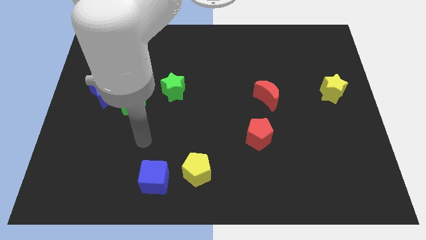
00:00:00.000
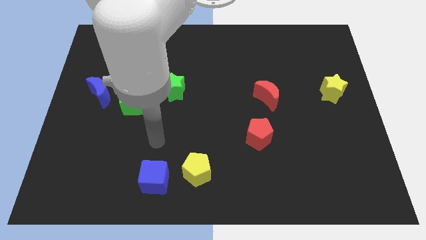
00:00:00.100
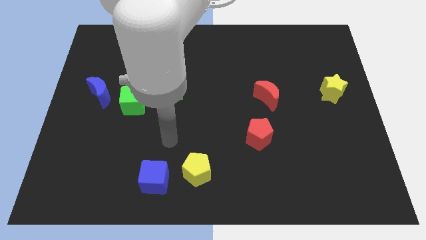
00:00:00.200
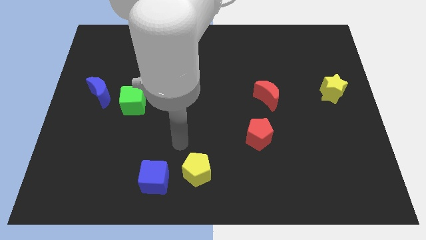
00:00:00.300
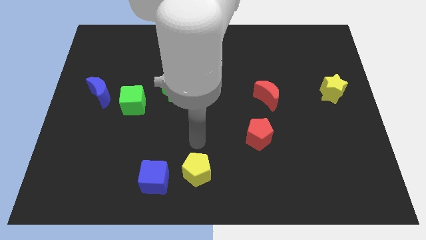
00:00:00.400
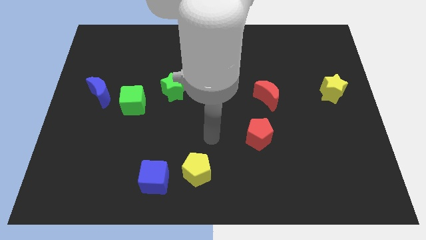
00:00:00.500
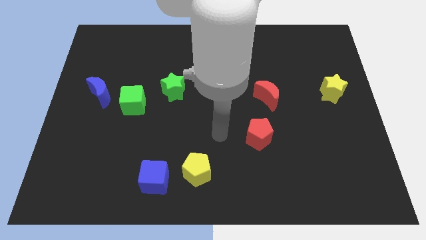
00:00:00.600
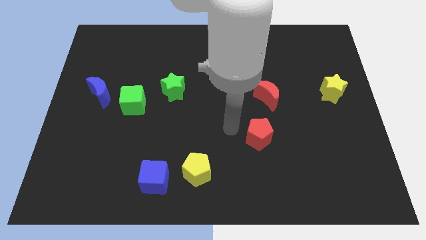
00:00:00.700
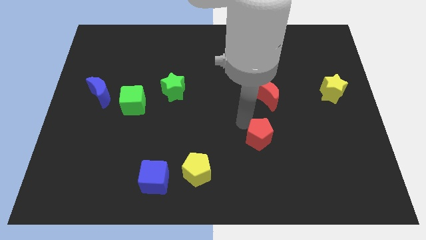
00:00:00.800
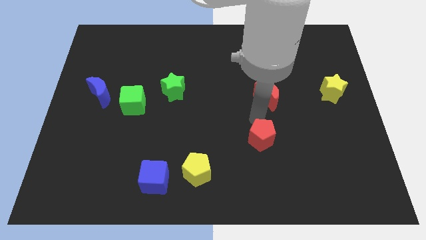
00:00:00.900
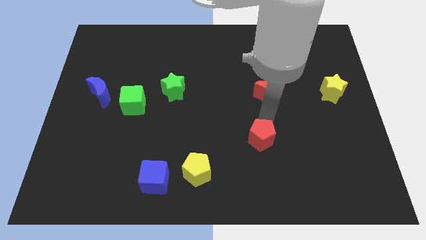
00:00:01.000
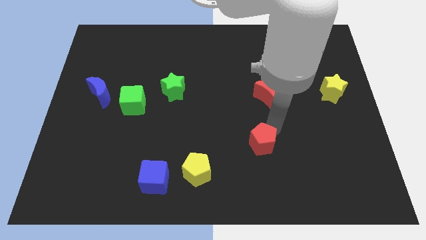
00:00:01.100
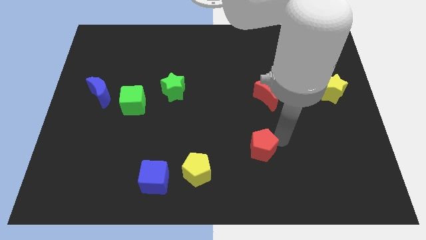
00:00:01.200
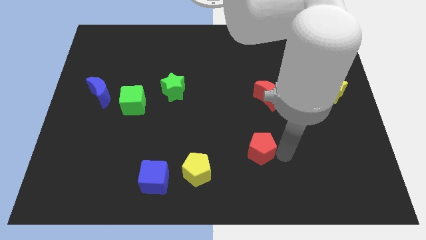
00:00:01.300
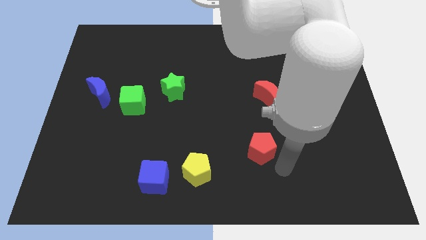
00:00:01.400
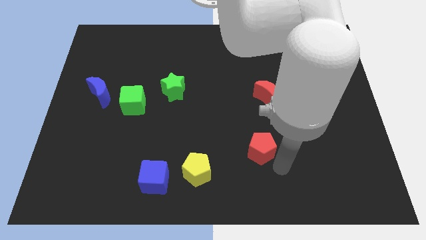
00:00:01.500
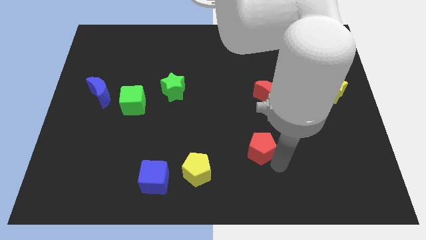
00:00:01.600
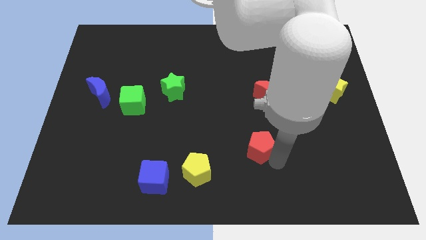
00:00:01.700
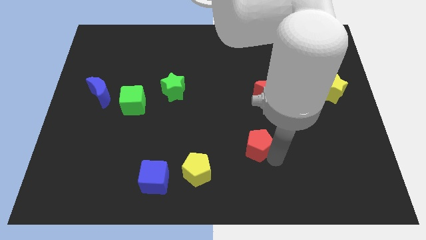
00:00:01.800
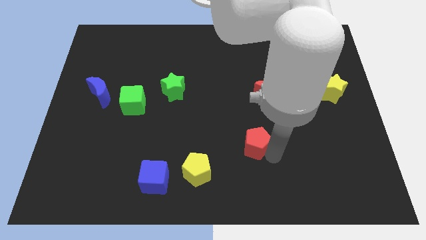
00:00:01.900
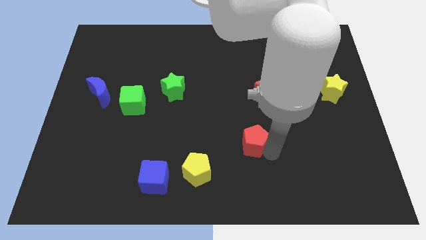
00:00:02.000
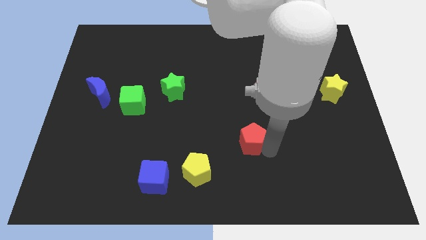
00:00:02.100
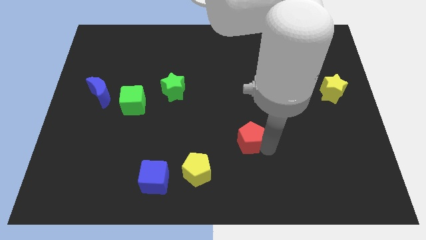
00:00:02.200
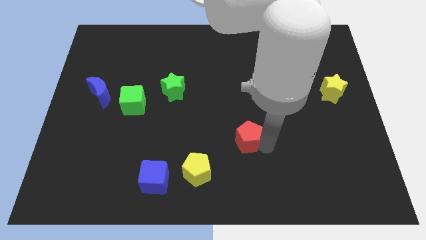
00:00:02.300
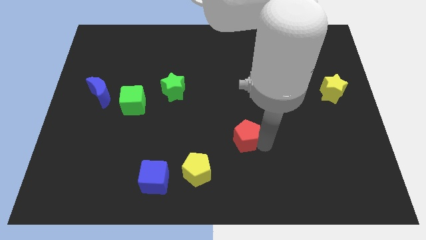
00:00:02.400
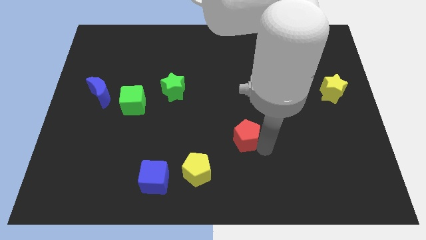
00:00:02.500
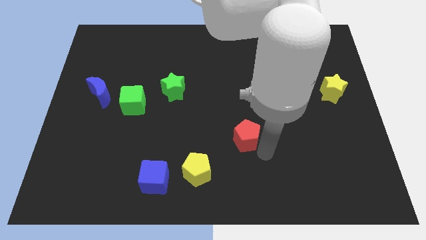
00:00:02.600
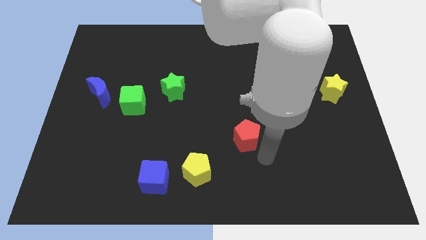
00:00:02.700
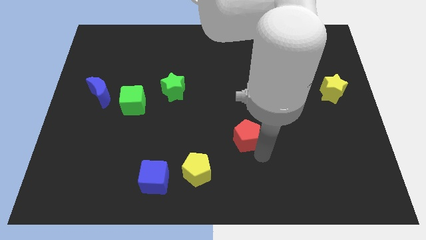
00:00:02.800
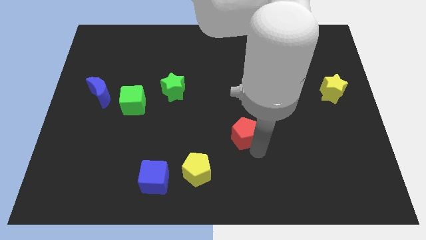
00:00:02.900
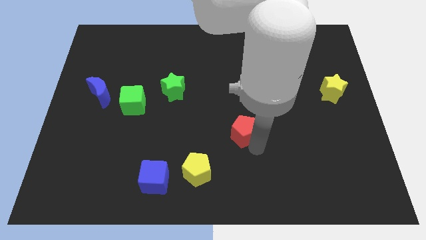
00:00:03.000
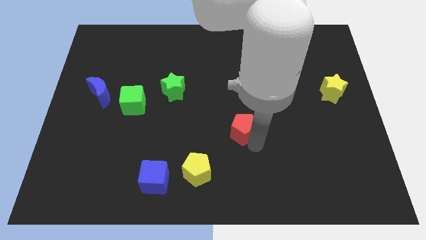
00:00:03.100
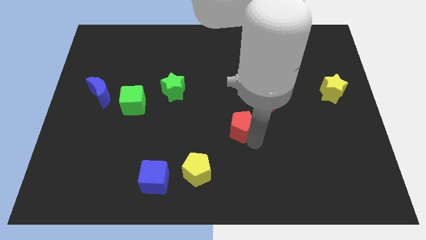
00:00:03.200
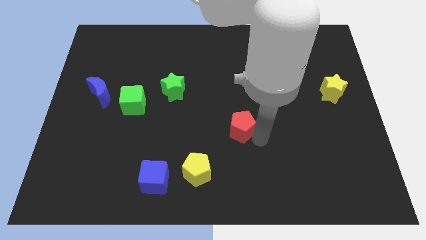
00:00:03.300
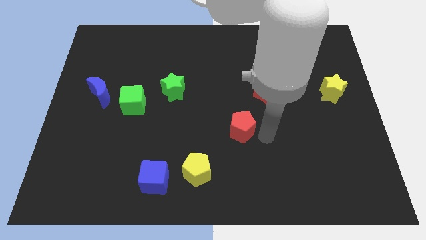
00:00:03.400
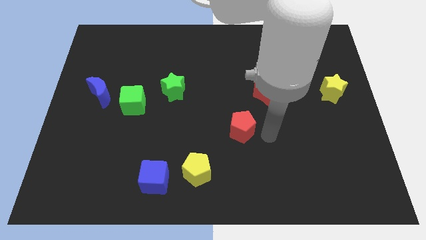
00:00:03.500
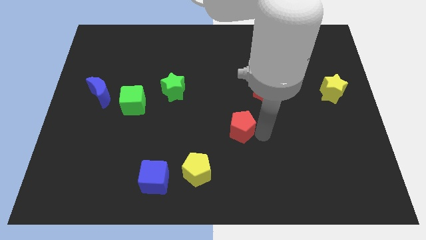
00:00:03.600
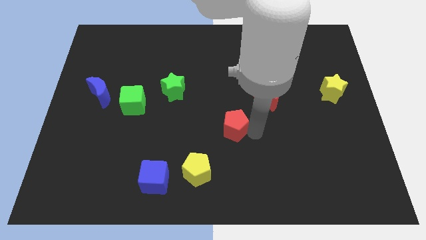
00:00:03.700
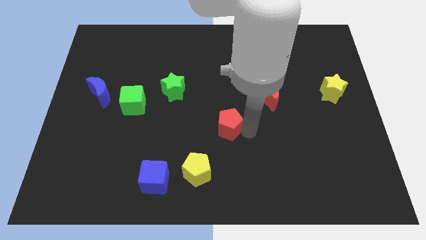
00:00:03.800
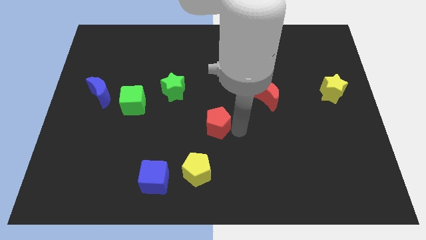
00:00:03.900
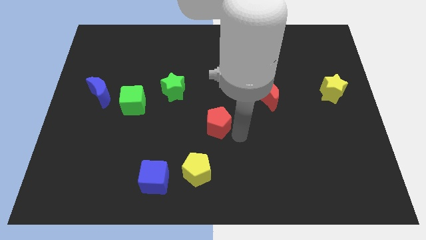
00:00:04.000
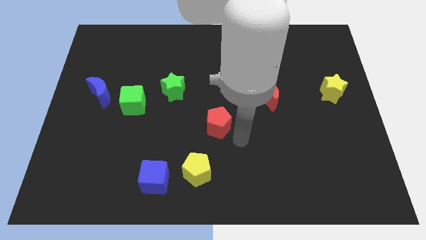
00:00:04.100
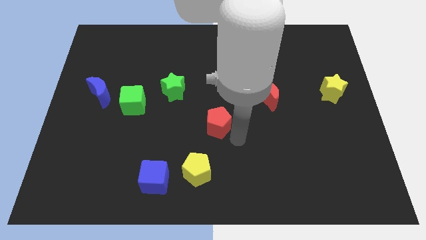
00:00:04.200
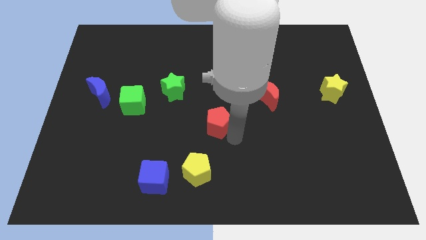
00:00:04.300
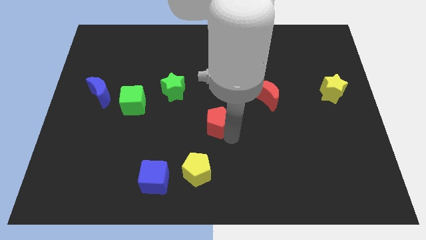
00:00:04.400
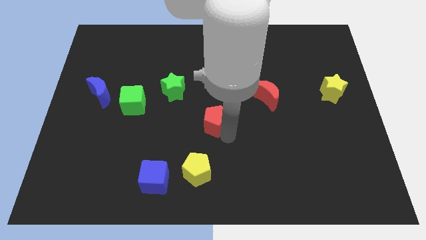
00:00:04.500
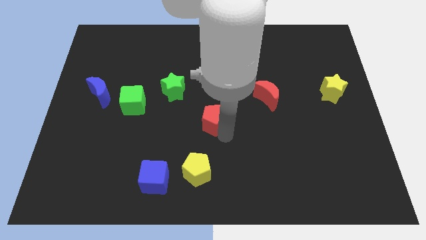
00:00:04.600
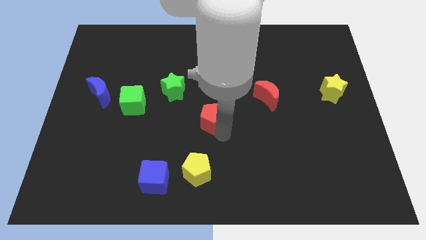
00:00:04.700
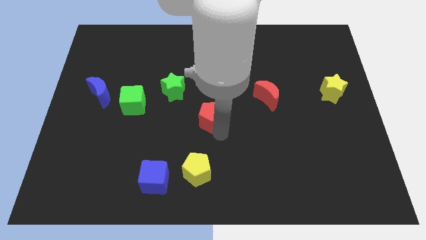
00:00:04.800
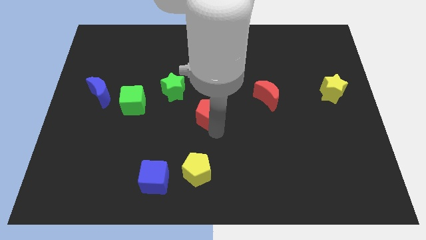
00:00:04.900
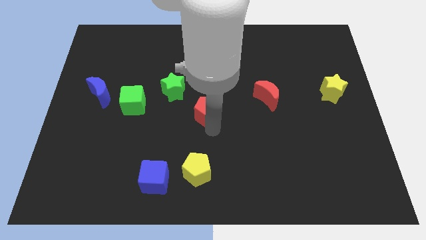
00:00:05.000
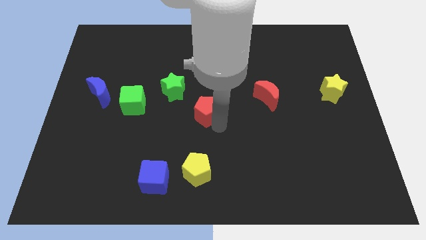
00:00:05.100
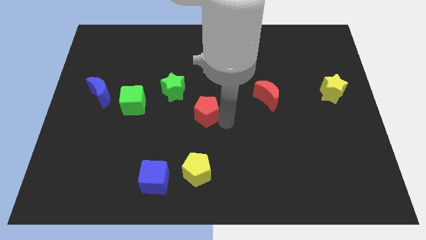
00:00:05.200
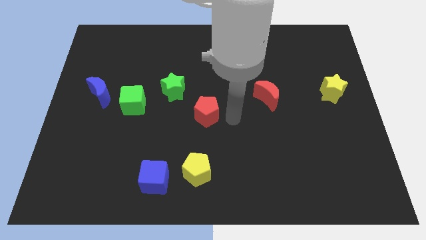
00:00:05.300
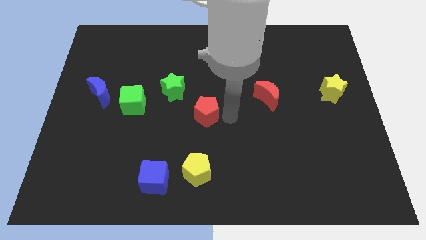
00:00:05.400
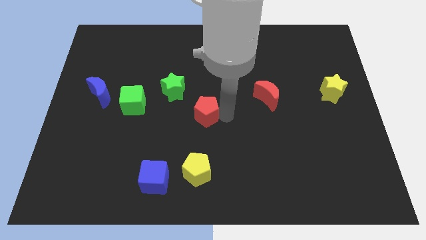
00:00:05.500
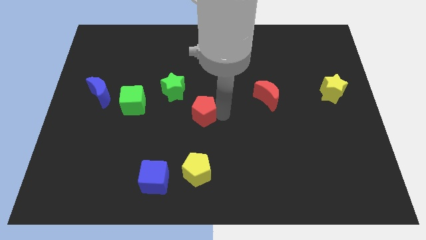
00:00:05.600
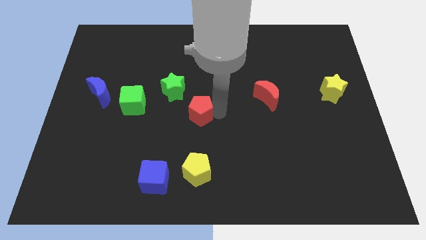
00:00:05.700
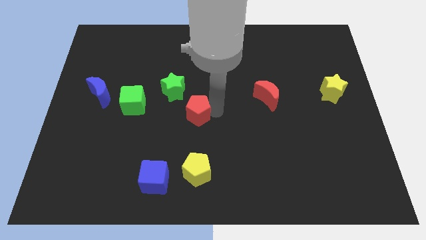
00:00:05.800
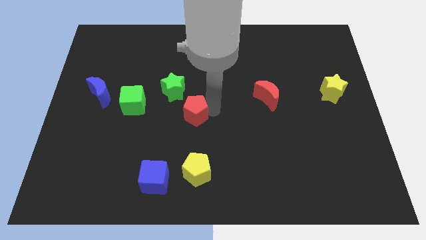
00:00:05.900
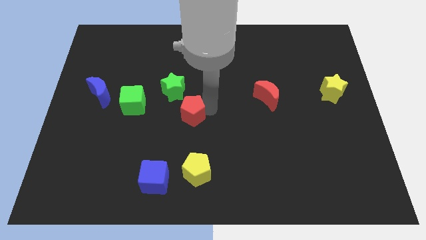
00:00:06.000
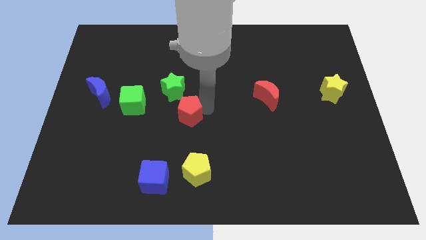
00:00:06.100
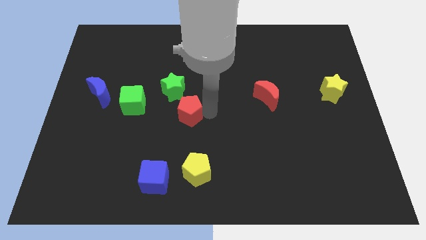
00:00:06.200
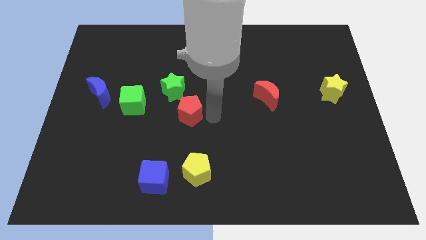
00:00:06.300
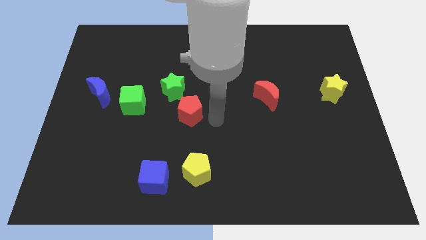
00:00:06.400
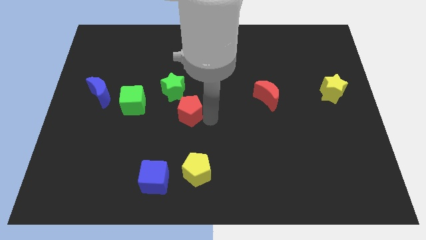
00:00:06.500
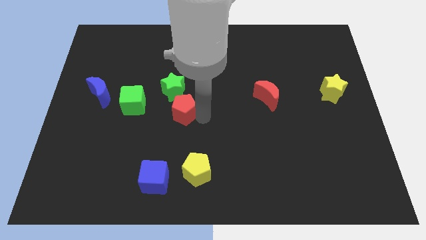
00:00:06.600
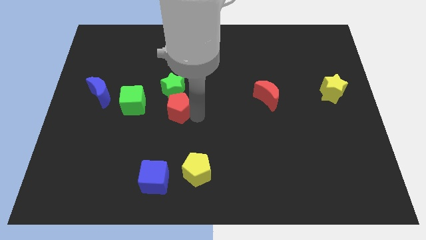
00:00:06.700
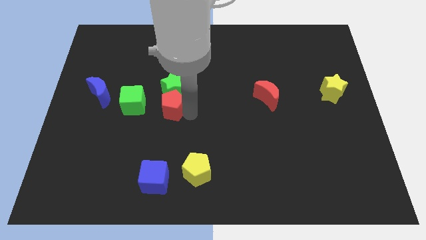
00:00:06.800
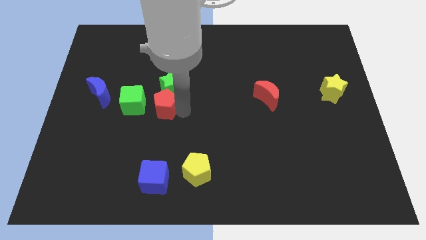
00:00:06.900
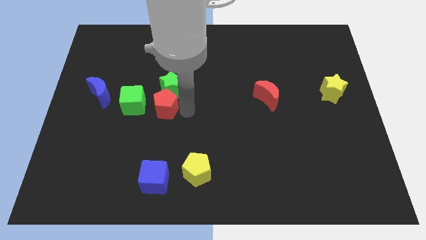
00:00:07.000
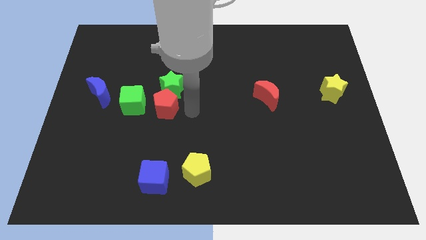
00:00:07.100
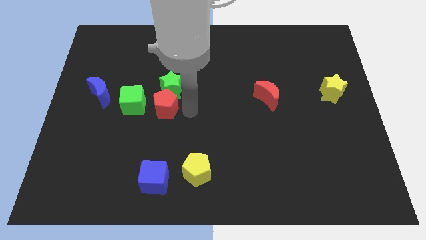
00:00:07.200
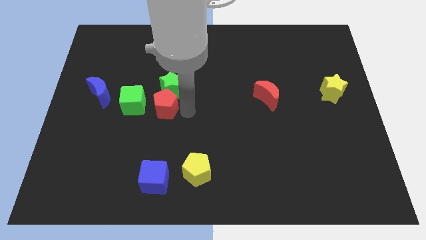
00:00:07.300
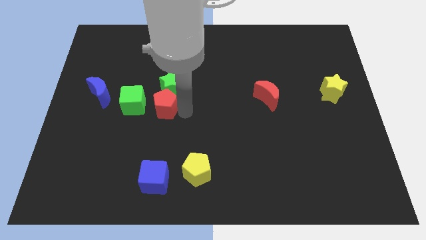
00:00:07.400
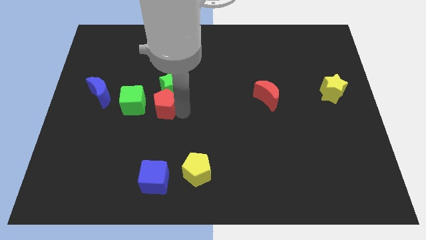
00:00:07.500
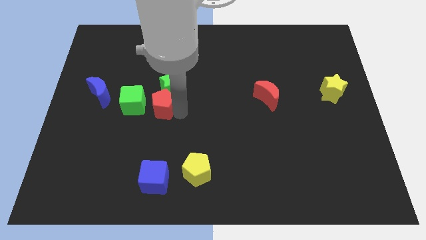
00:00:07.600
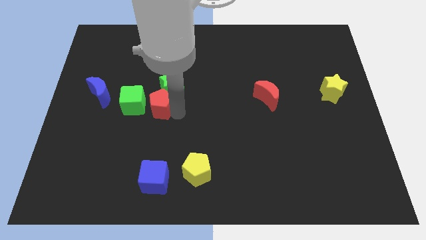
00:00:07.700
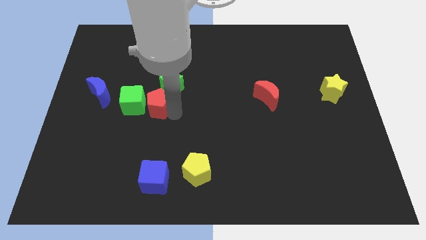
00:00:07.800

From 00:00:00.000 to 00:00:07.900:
put the red pentagon next to the green cube
